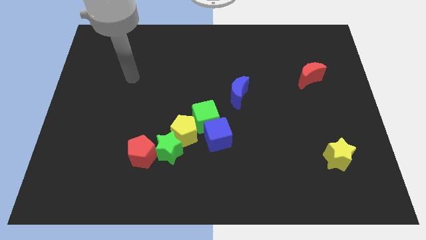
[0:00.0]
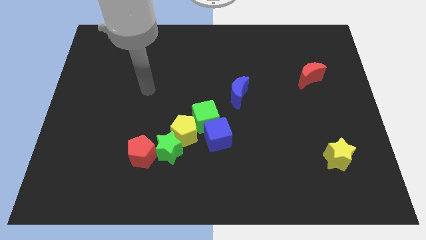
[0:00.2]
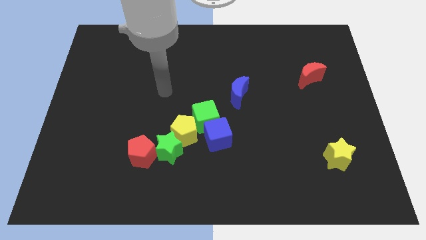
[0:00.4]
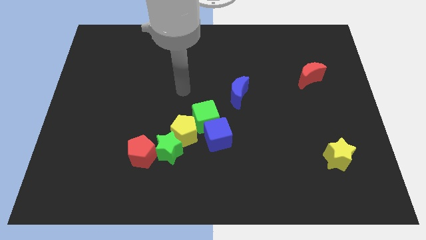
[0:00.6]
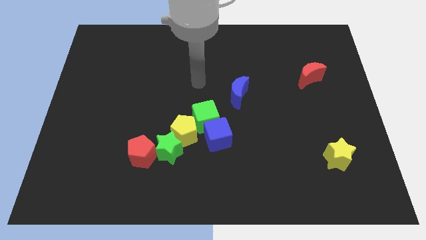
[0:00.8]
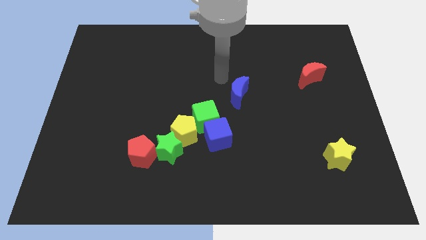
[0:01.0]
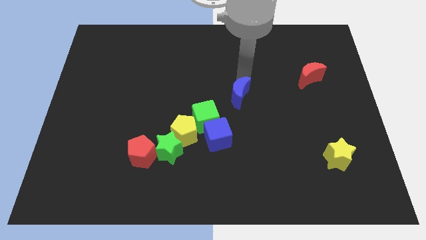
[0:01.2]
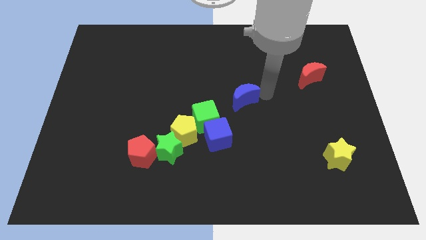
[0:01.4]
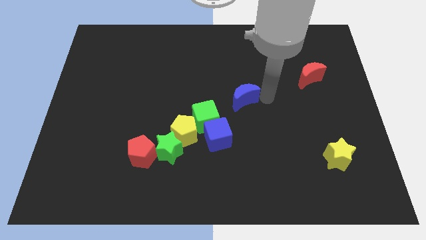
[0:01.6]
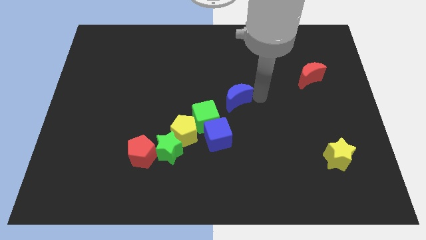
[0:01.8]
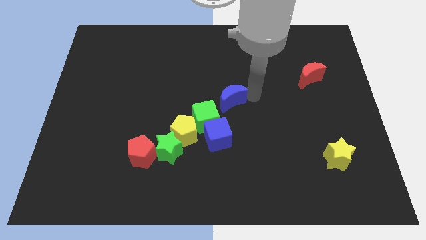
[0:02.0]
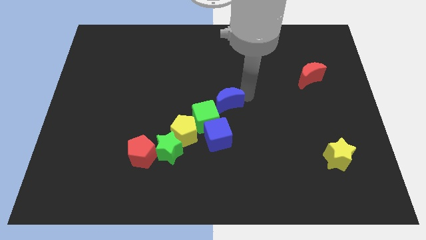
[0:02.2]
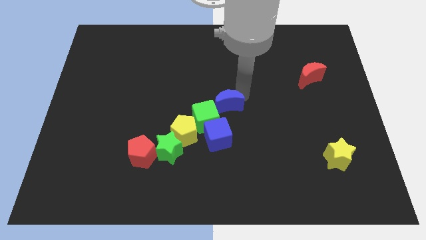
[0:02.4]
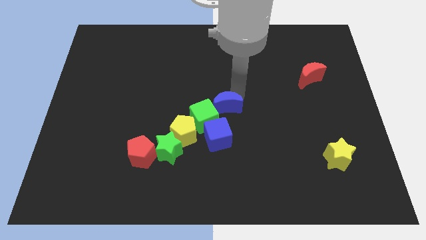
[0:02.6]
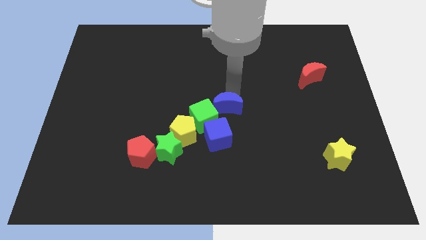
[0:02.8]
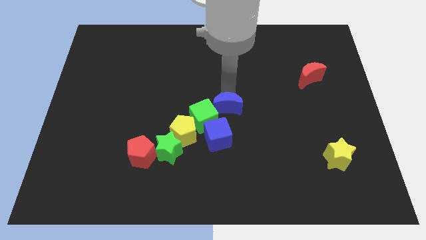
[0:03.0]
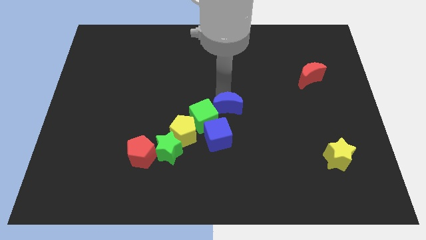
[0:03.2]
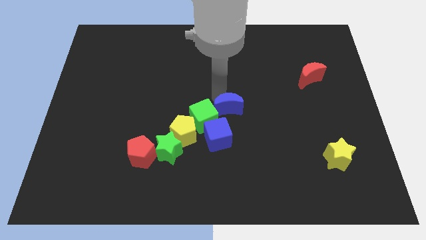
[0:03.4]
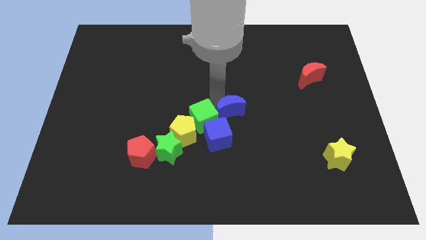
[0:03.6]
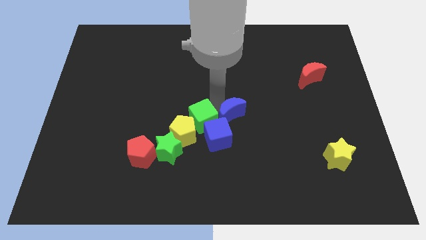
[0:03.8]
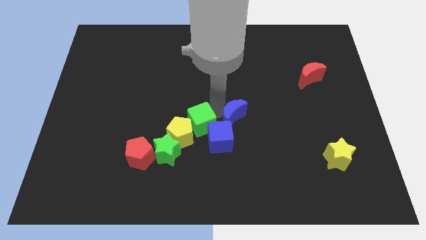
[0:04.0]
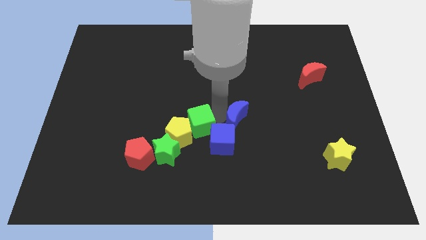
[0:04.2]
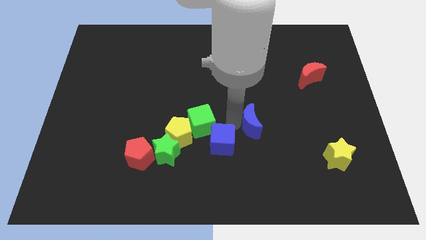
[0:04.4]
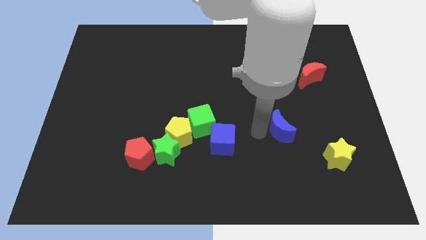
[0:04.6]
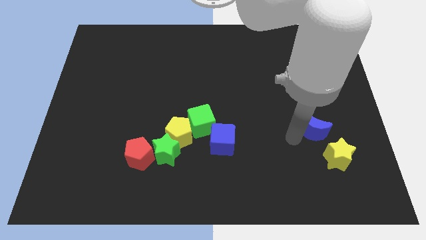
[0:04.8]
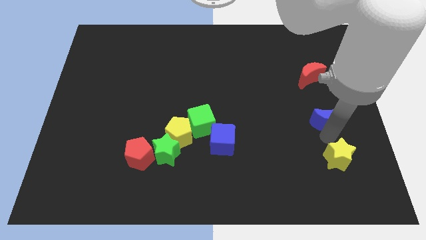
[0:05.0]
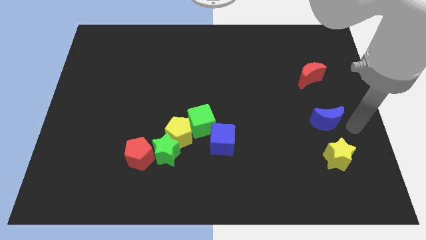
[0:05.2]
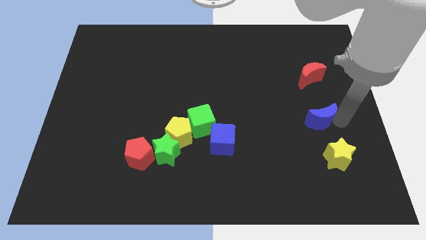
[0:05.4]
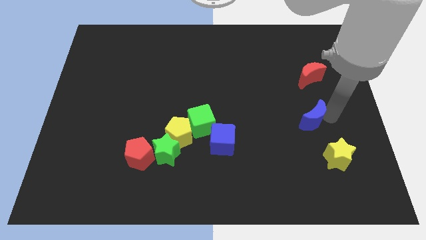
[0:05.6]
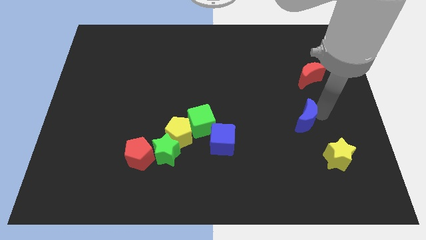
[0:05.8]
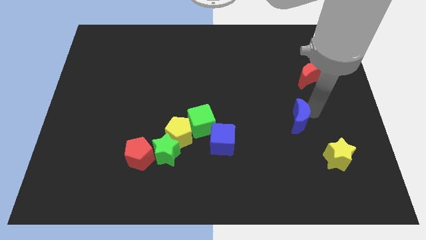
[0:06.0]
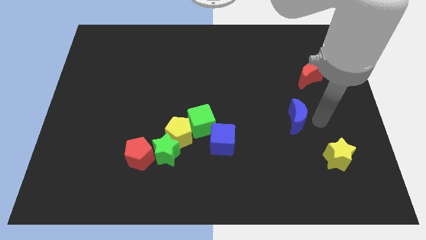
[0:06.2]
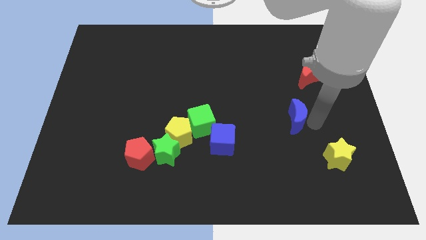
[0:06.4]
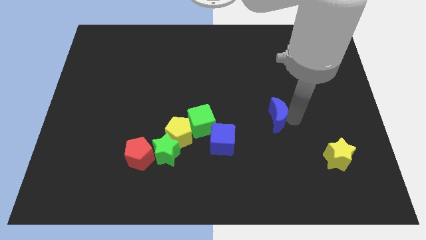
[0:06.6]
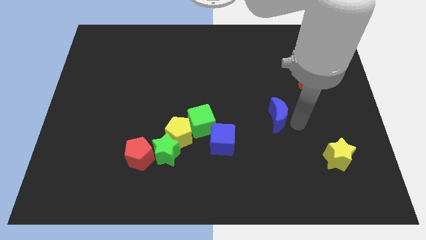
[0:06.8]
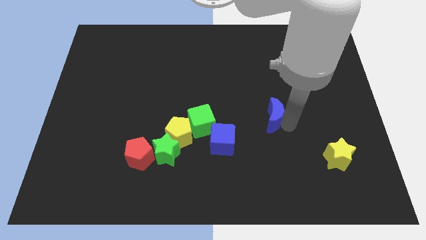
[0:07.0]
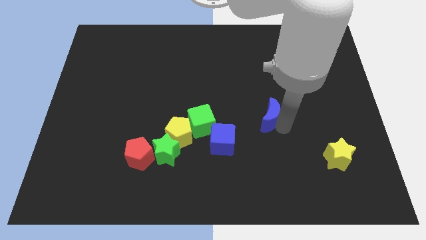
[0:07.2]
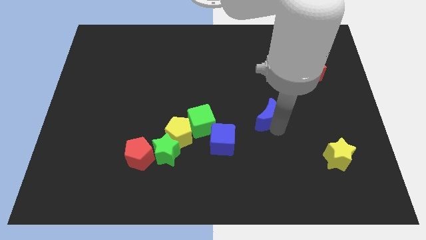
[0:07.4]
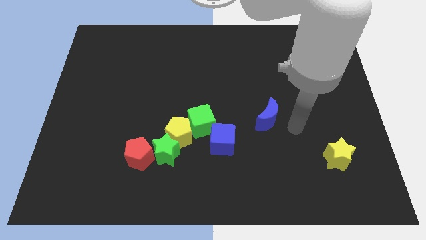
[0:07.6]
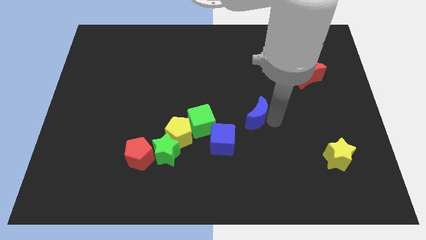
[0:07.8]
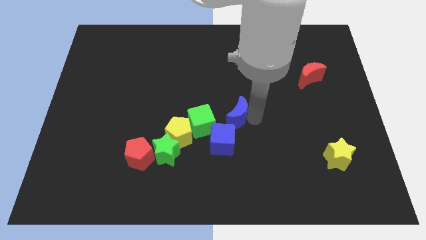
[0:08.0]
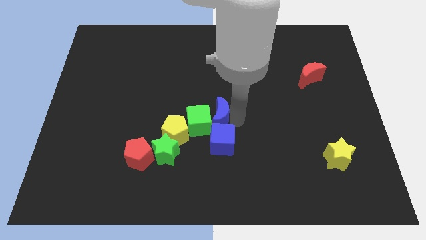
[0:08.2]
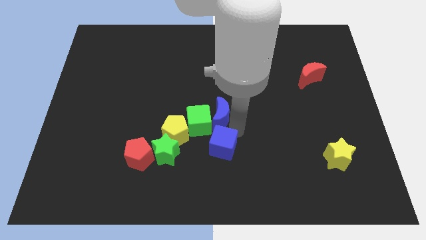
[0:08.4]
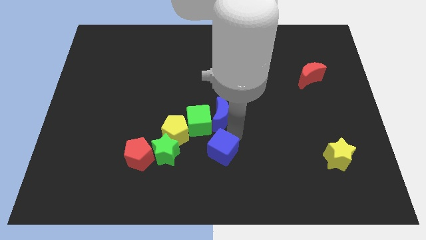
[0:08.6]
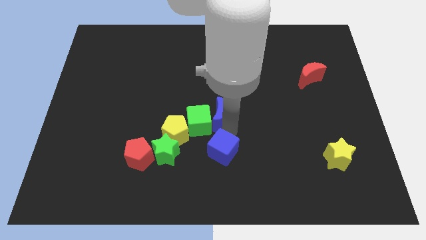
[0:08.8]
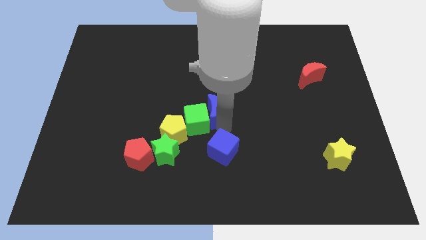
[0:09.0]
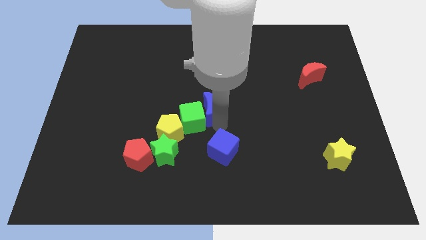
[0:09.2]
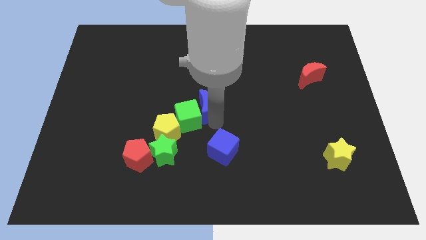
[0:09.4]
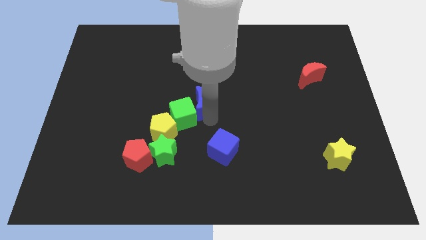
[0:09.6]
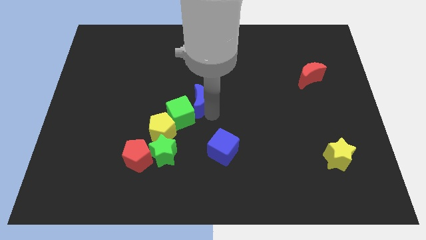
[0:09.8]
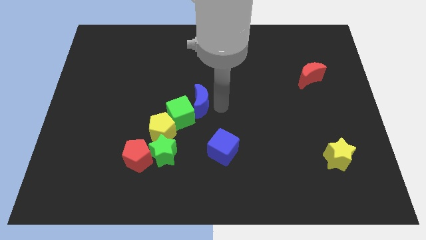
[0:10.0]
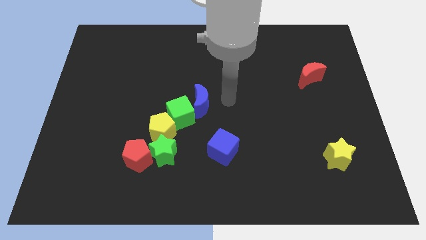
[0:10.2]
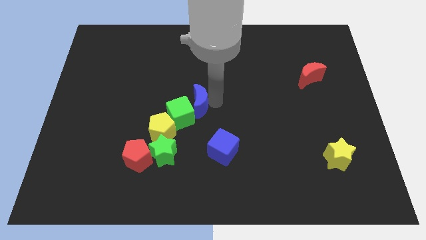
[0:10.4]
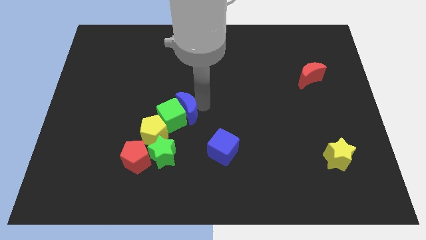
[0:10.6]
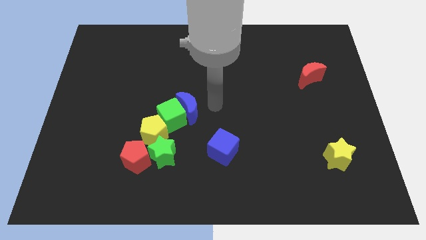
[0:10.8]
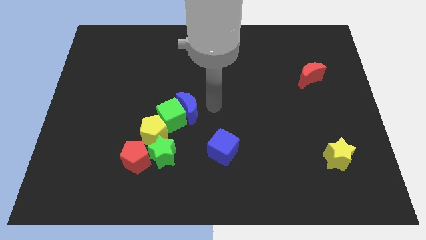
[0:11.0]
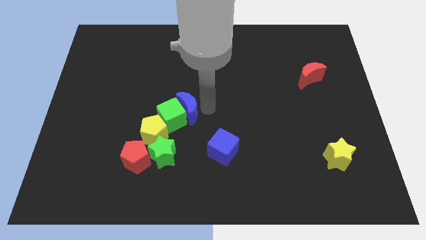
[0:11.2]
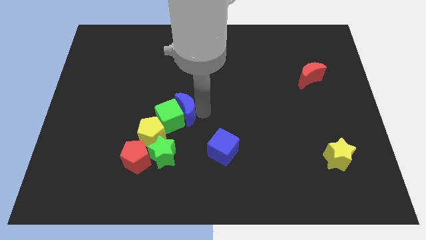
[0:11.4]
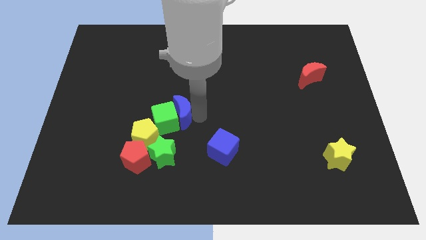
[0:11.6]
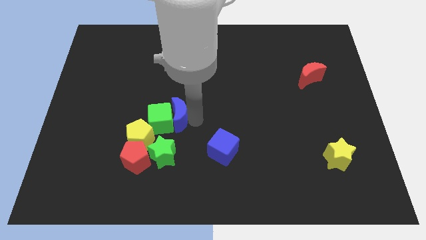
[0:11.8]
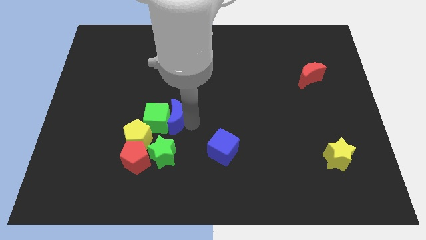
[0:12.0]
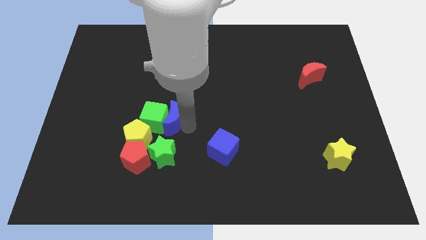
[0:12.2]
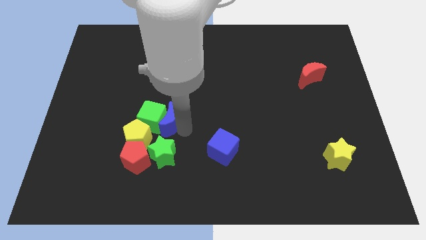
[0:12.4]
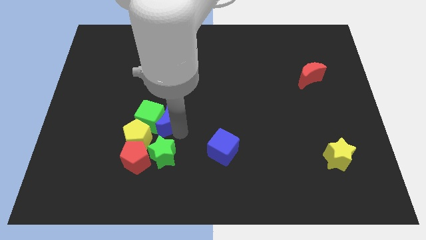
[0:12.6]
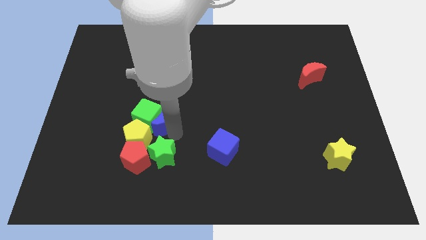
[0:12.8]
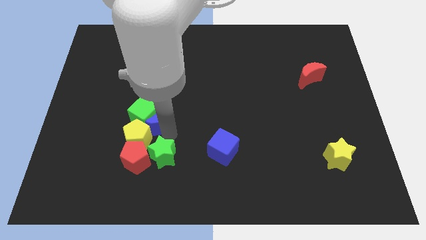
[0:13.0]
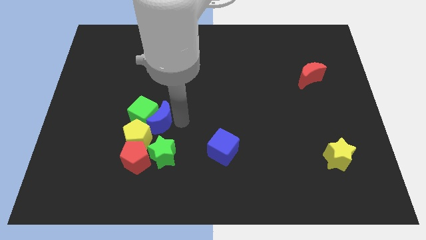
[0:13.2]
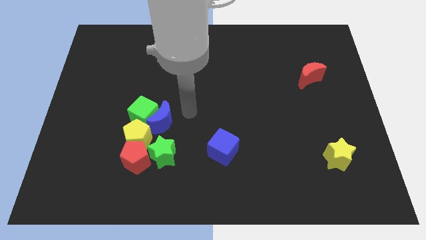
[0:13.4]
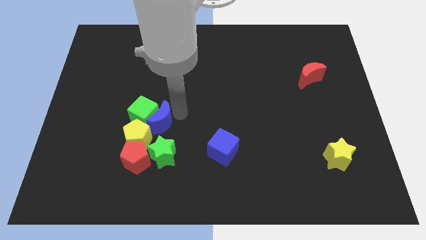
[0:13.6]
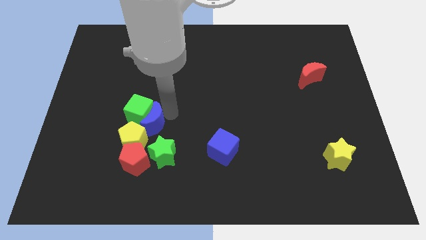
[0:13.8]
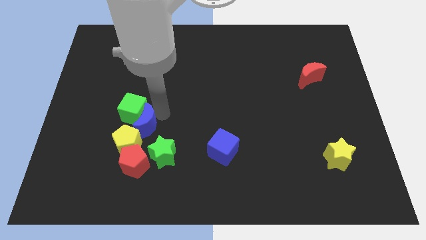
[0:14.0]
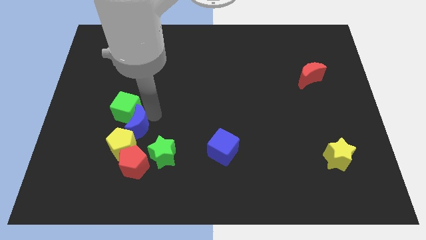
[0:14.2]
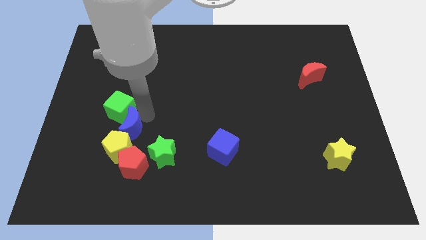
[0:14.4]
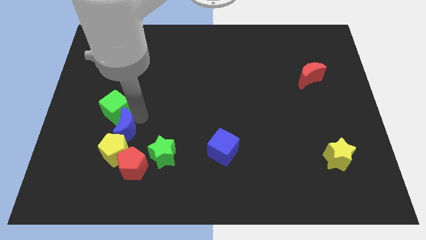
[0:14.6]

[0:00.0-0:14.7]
put the blue moon to the top left side of the red pentagon
